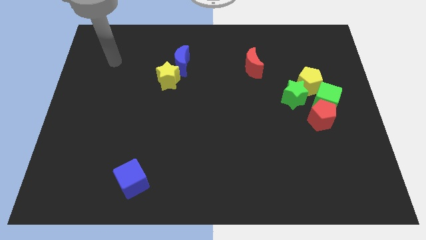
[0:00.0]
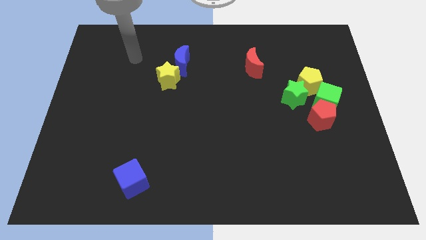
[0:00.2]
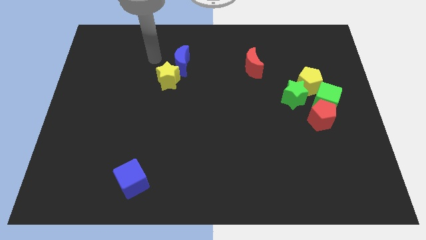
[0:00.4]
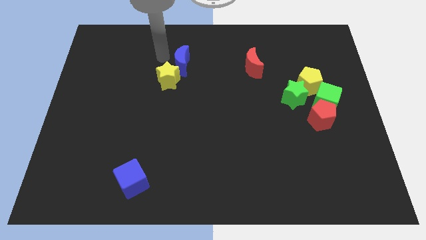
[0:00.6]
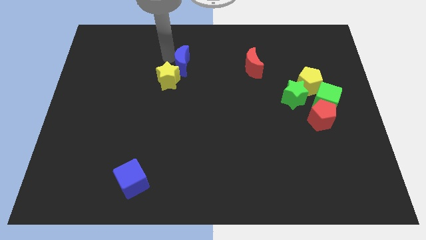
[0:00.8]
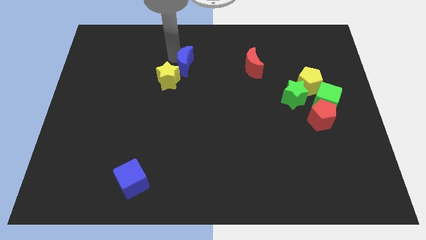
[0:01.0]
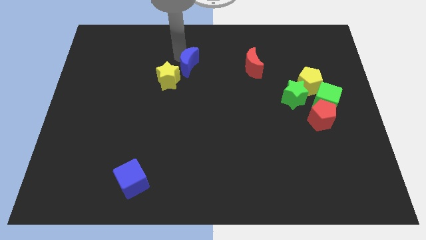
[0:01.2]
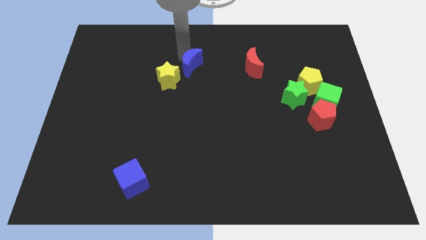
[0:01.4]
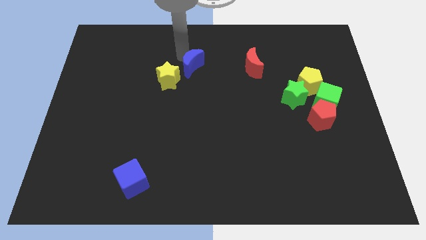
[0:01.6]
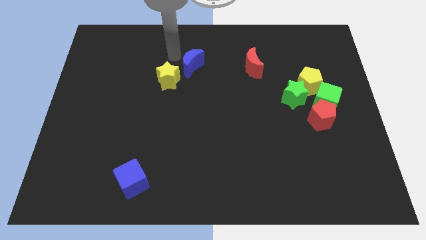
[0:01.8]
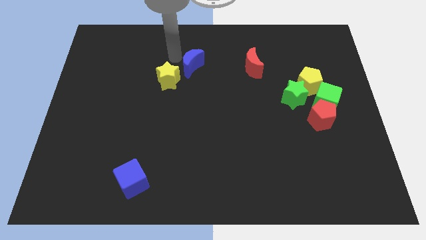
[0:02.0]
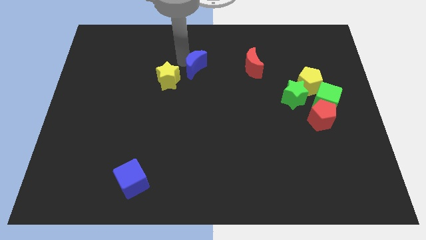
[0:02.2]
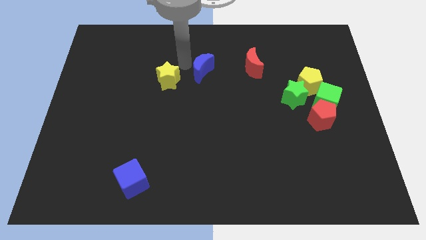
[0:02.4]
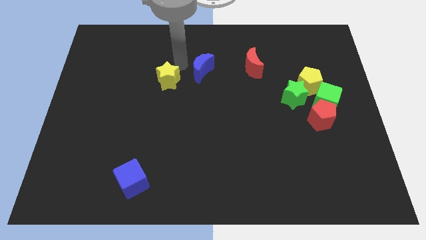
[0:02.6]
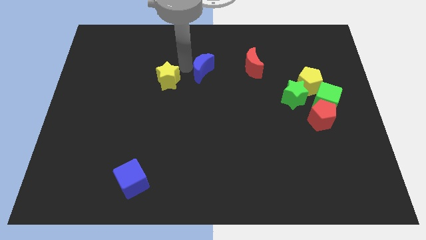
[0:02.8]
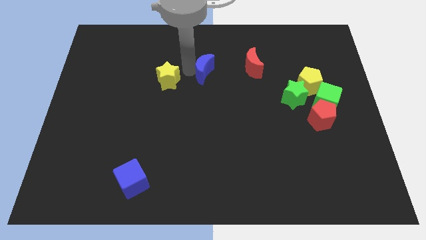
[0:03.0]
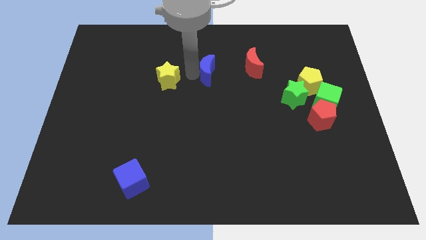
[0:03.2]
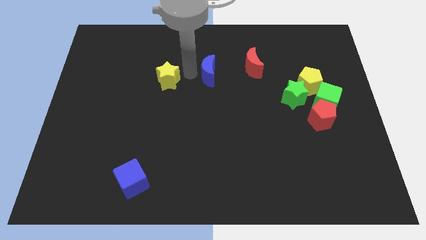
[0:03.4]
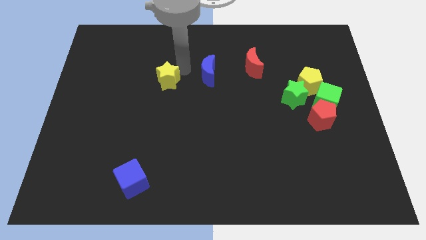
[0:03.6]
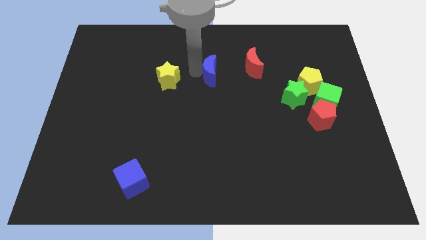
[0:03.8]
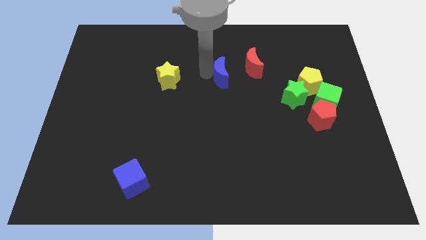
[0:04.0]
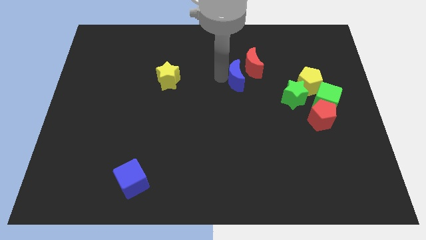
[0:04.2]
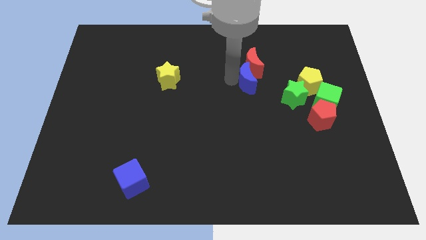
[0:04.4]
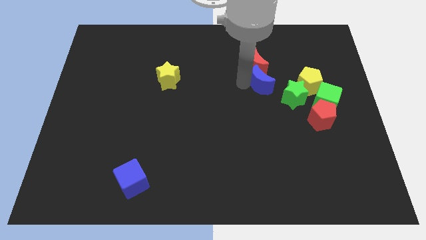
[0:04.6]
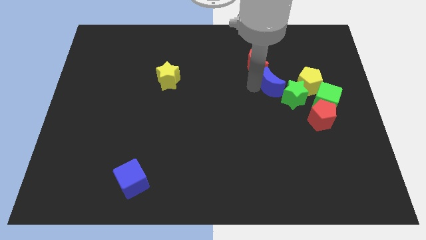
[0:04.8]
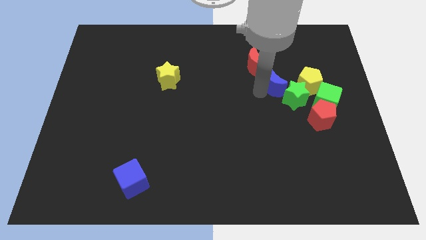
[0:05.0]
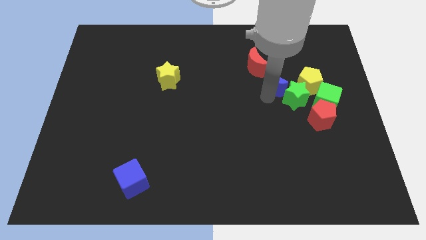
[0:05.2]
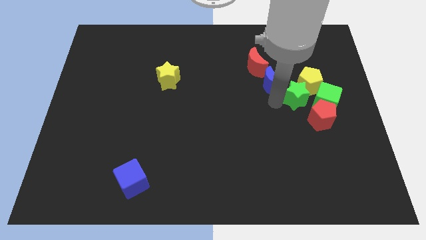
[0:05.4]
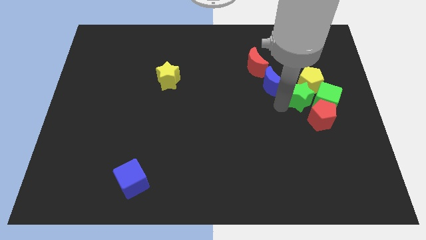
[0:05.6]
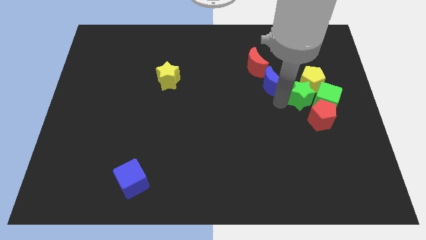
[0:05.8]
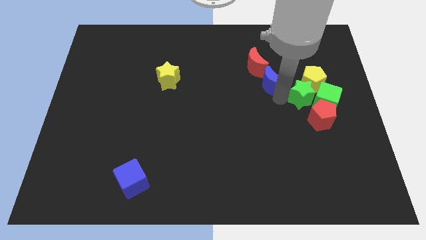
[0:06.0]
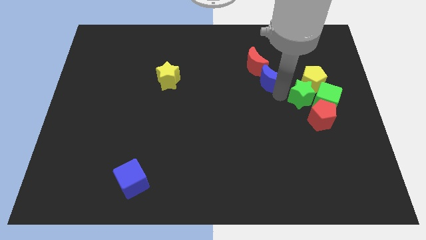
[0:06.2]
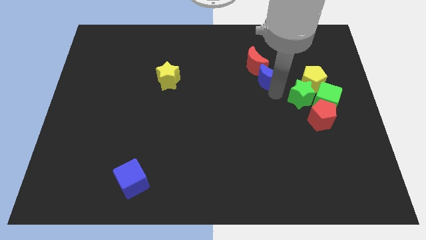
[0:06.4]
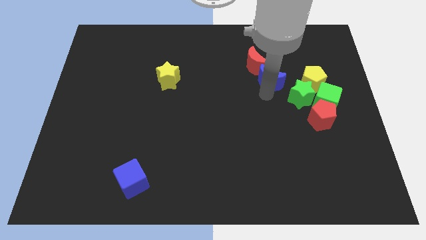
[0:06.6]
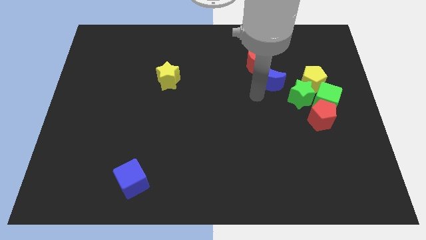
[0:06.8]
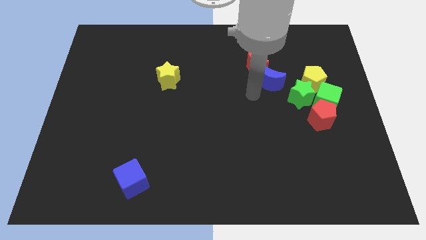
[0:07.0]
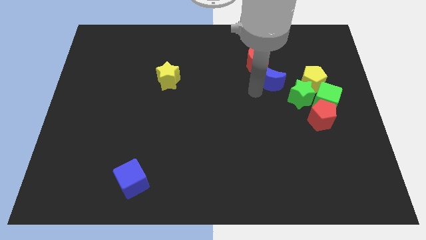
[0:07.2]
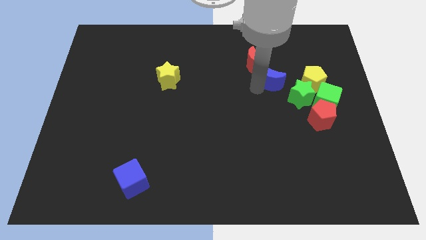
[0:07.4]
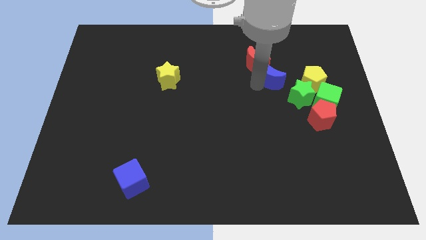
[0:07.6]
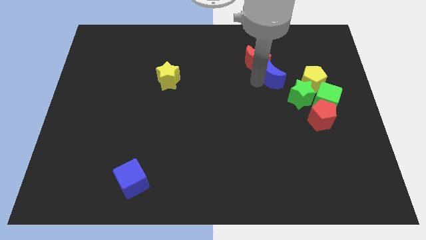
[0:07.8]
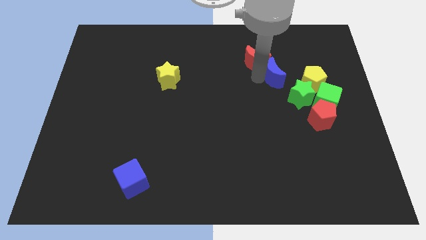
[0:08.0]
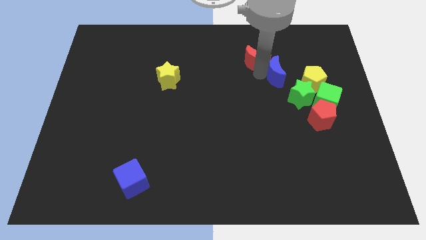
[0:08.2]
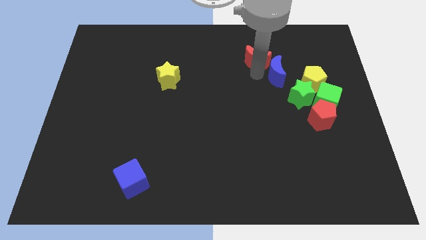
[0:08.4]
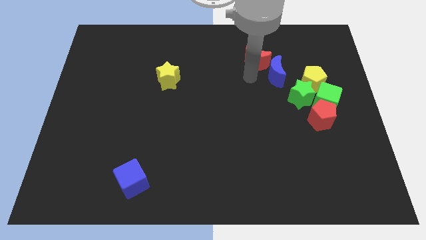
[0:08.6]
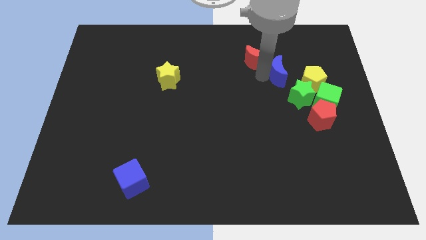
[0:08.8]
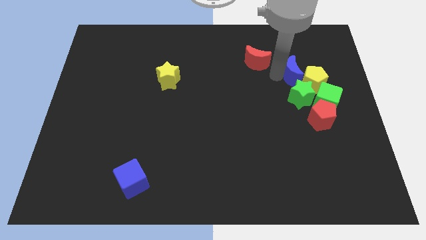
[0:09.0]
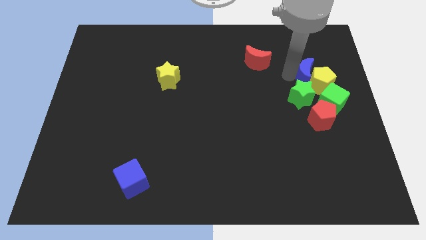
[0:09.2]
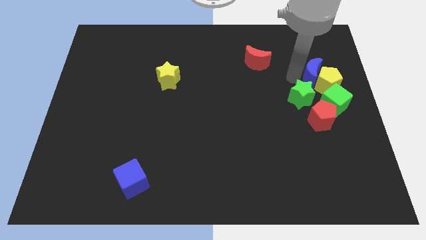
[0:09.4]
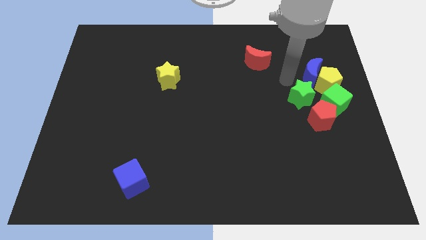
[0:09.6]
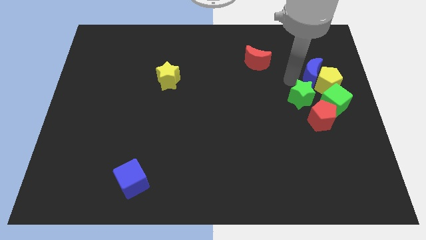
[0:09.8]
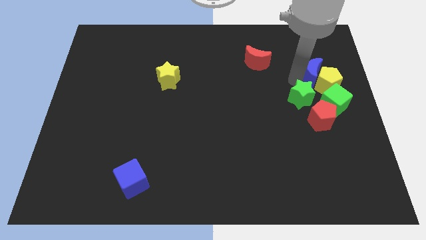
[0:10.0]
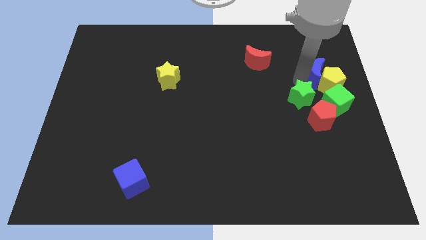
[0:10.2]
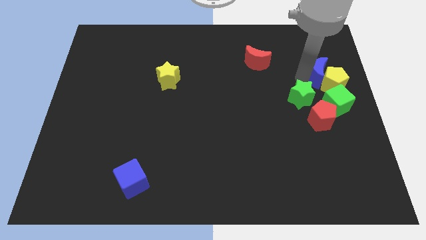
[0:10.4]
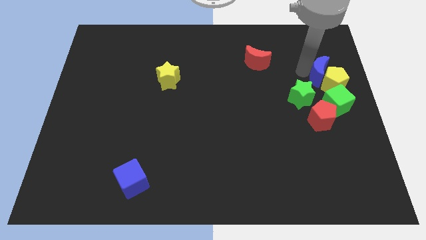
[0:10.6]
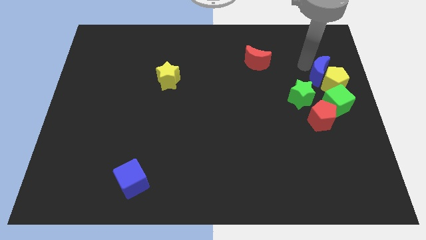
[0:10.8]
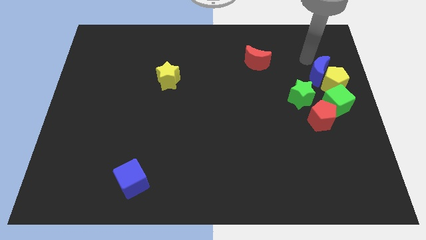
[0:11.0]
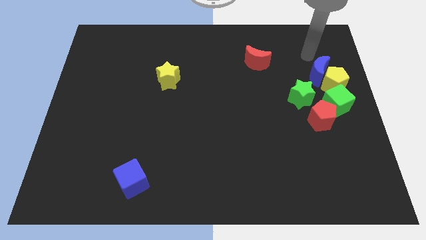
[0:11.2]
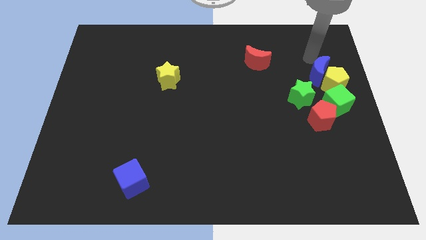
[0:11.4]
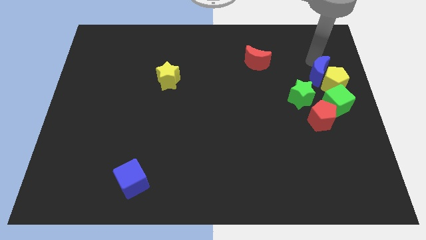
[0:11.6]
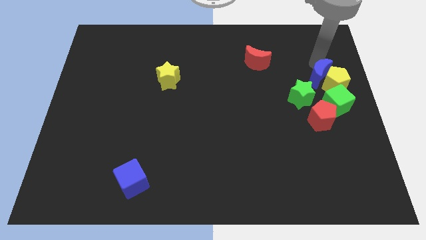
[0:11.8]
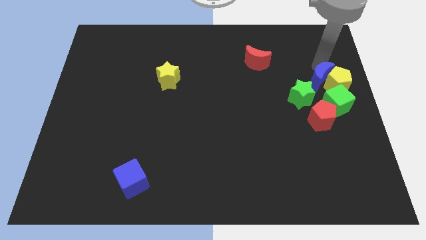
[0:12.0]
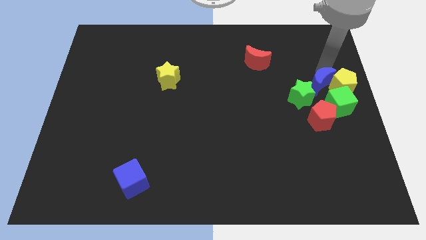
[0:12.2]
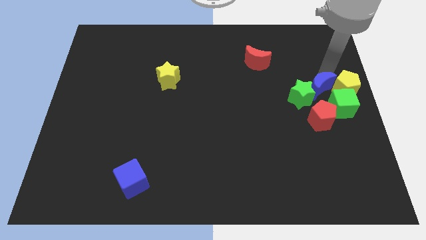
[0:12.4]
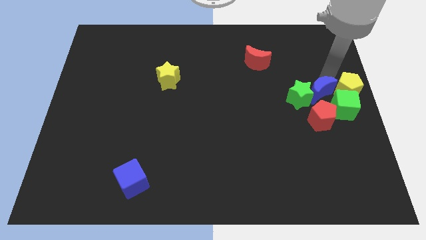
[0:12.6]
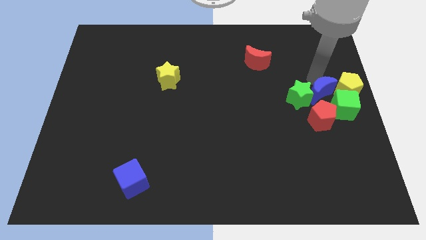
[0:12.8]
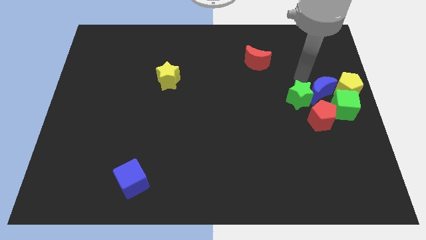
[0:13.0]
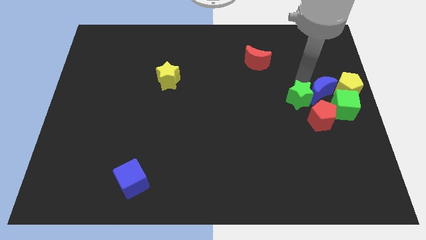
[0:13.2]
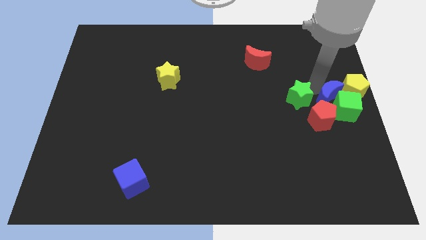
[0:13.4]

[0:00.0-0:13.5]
move the blue moon towards the green cube
